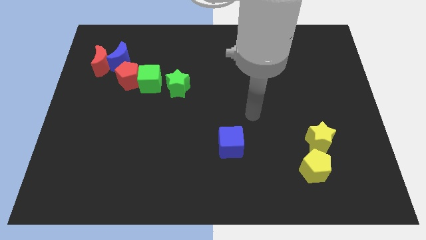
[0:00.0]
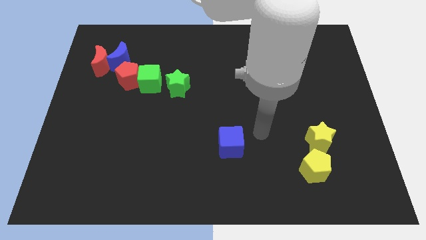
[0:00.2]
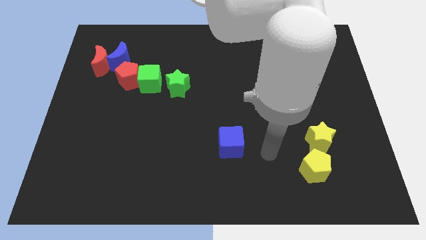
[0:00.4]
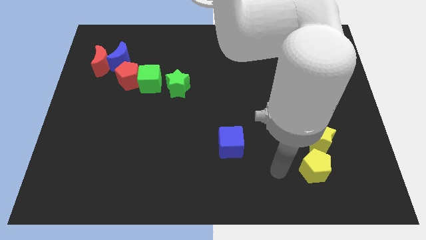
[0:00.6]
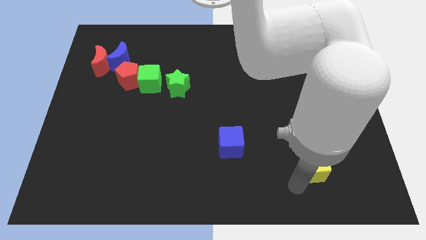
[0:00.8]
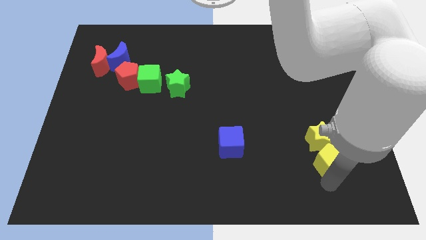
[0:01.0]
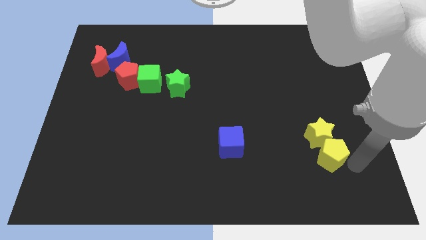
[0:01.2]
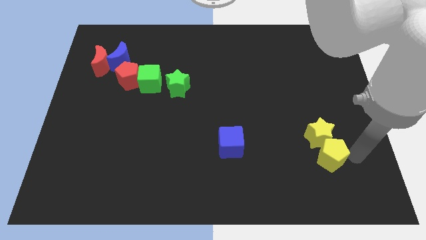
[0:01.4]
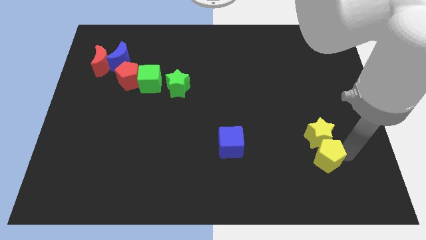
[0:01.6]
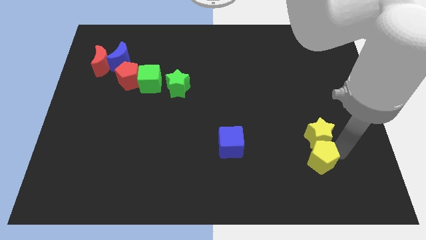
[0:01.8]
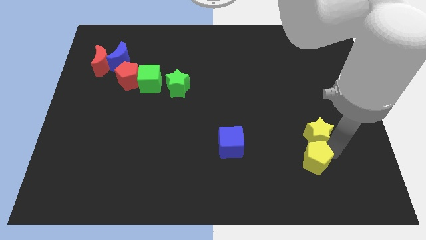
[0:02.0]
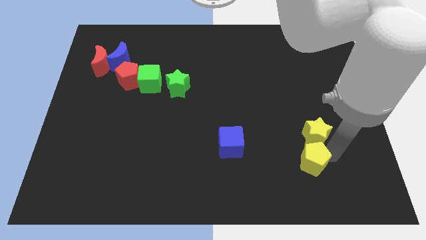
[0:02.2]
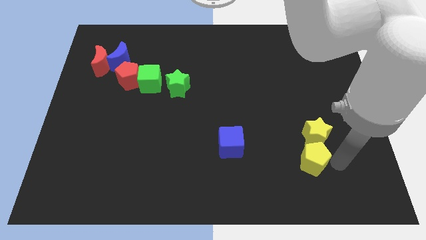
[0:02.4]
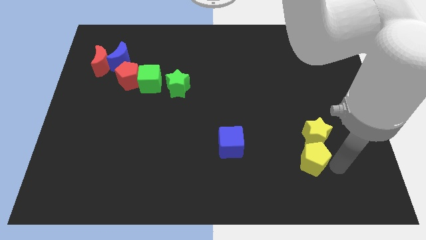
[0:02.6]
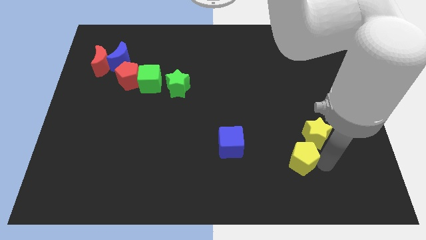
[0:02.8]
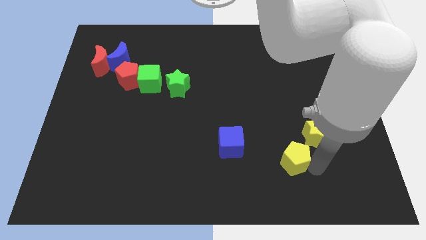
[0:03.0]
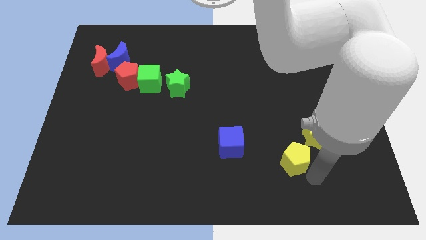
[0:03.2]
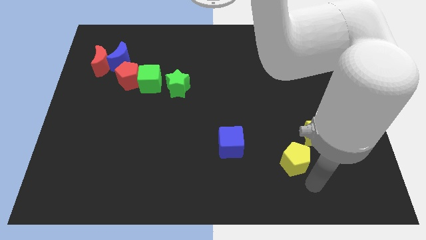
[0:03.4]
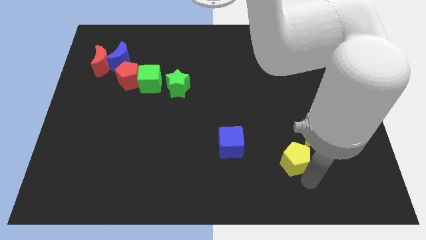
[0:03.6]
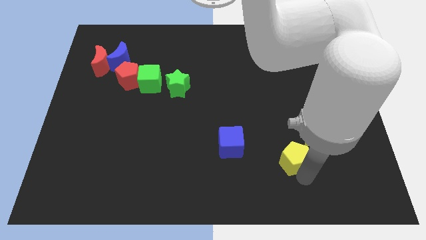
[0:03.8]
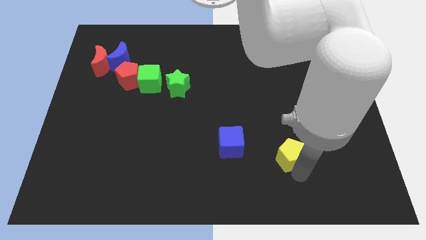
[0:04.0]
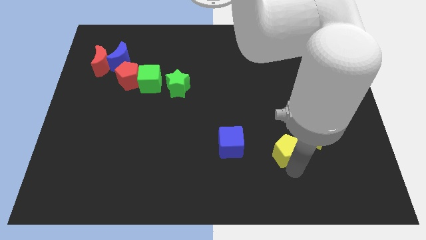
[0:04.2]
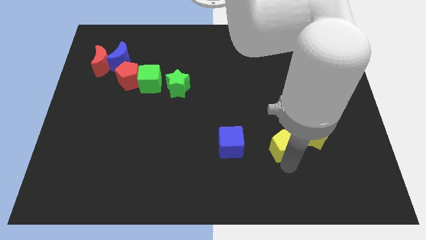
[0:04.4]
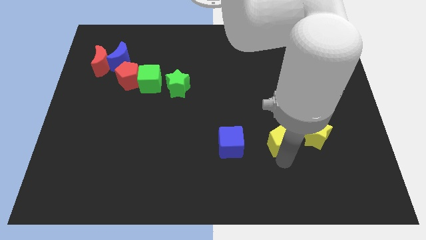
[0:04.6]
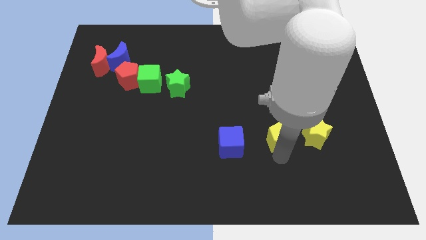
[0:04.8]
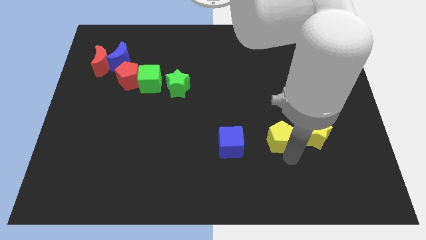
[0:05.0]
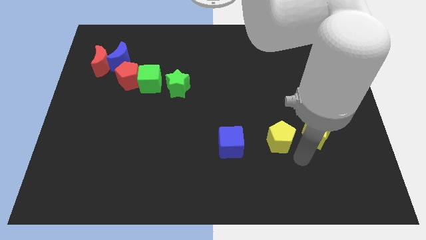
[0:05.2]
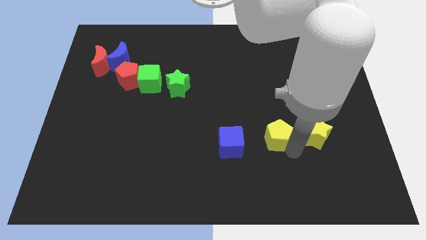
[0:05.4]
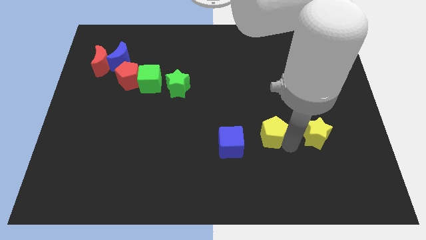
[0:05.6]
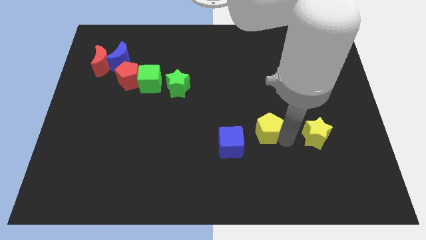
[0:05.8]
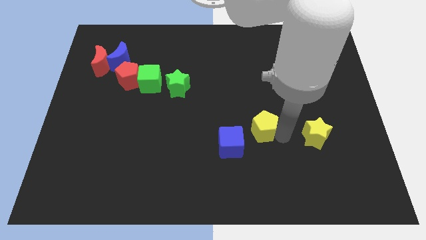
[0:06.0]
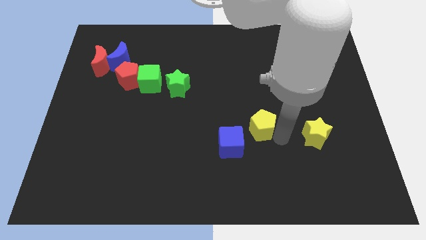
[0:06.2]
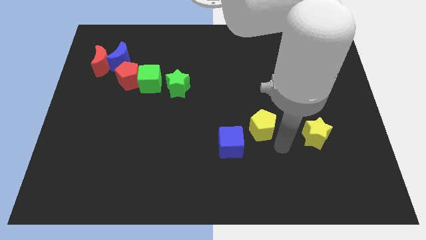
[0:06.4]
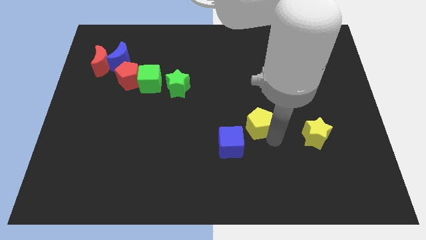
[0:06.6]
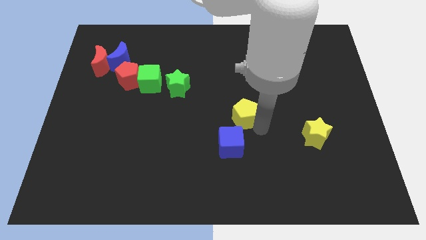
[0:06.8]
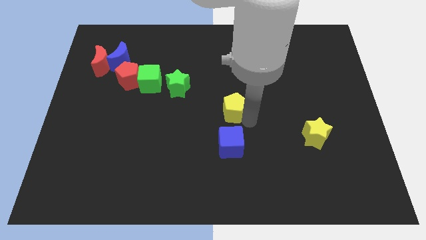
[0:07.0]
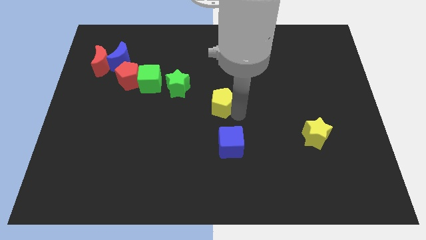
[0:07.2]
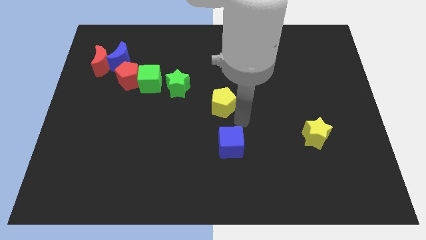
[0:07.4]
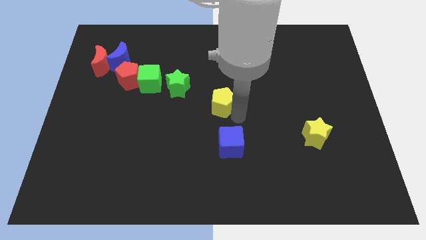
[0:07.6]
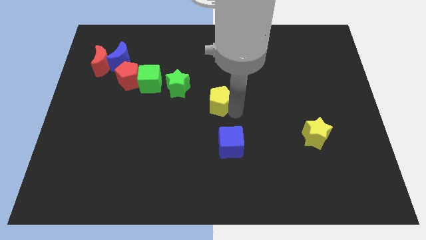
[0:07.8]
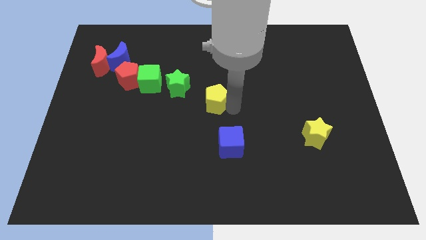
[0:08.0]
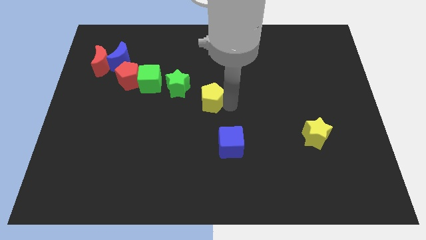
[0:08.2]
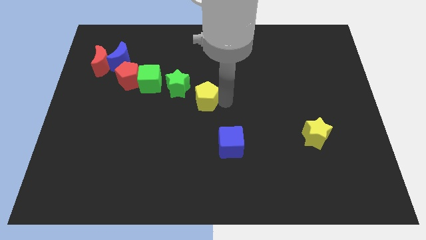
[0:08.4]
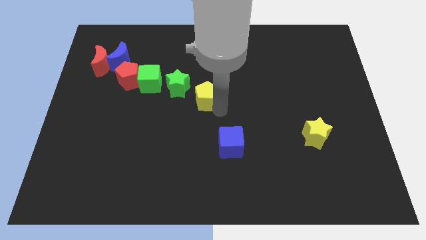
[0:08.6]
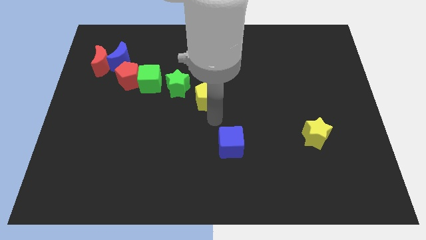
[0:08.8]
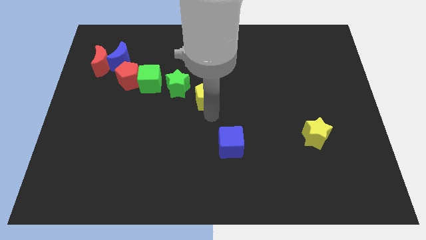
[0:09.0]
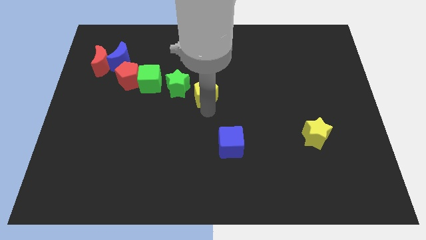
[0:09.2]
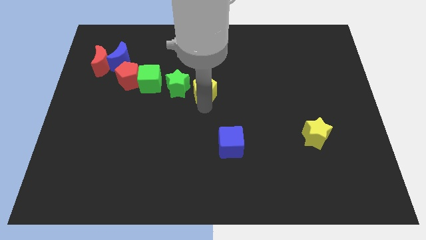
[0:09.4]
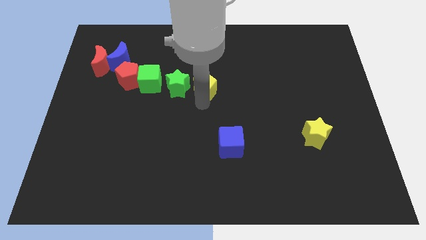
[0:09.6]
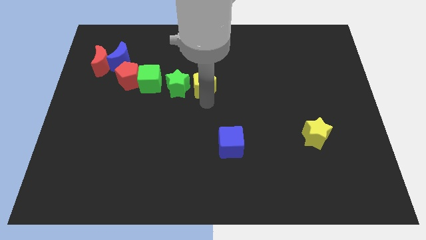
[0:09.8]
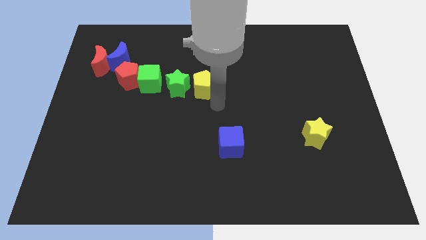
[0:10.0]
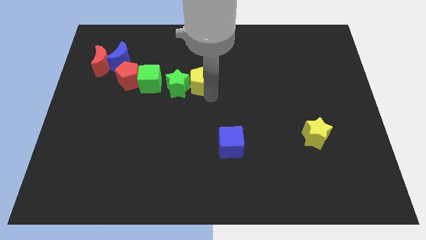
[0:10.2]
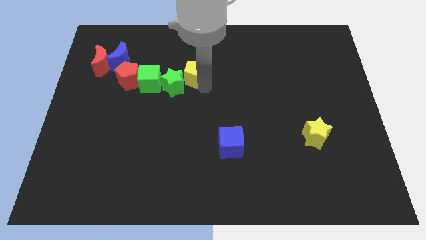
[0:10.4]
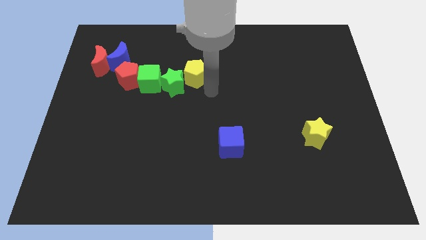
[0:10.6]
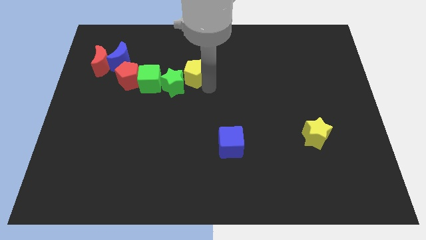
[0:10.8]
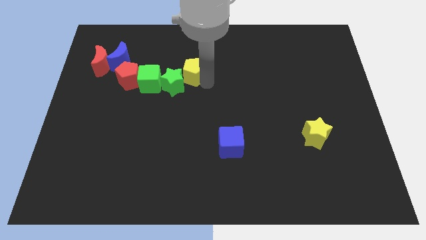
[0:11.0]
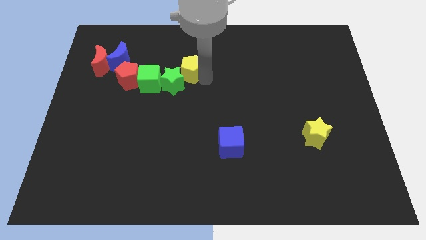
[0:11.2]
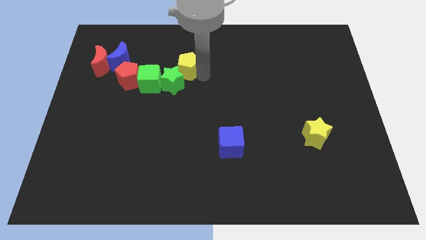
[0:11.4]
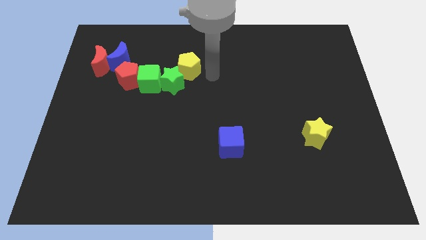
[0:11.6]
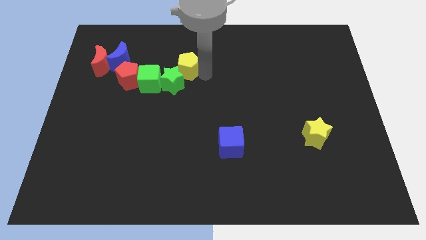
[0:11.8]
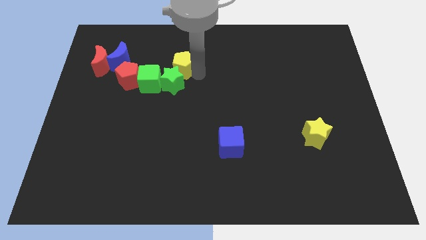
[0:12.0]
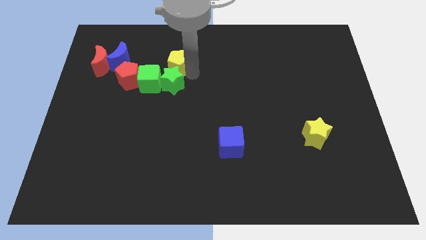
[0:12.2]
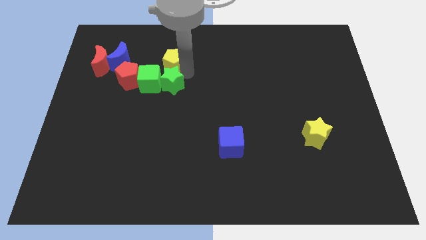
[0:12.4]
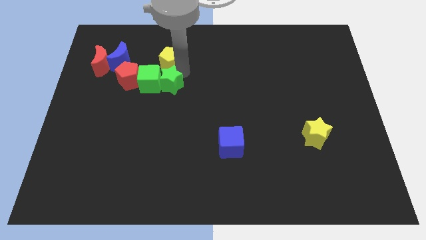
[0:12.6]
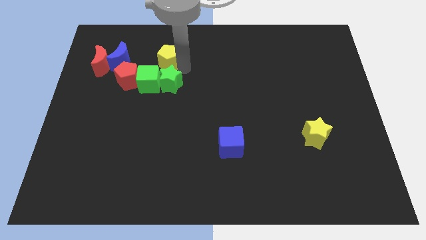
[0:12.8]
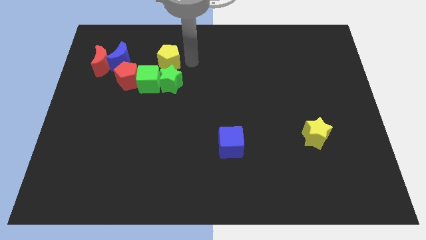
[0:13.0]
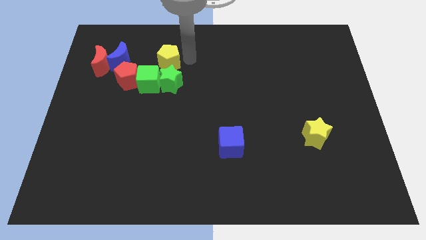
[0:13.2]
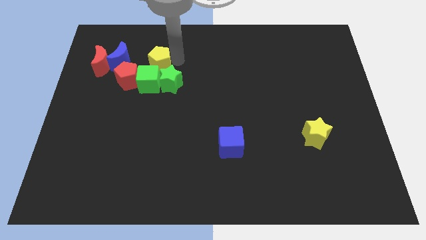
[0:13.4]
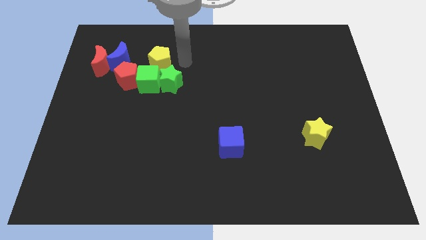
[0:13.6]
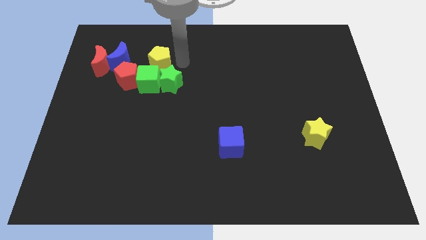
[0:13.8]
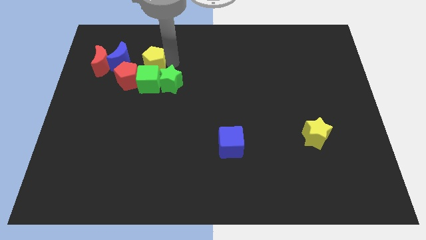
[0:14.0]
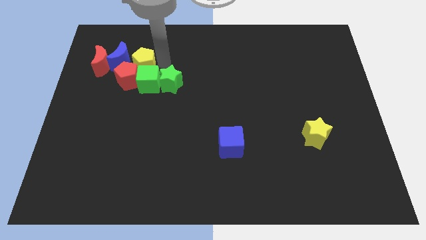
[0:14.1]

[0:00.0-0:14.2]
slide the yellow pentagon close to the blue moon

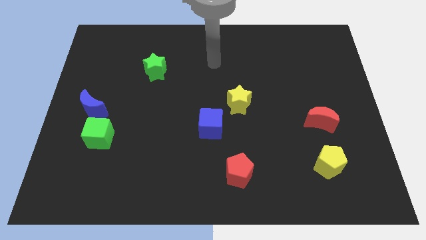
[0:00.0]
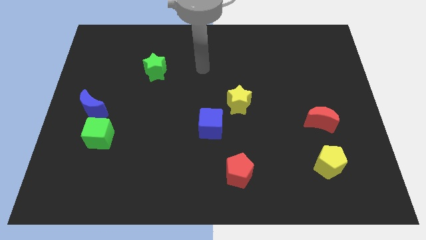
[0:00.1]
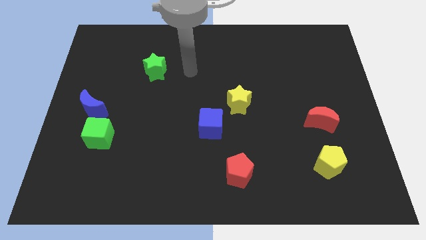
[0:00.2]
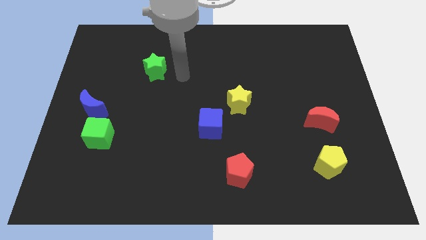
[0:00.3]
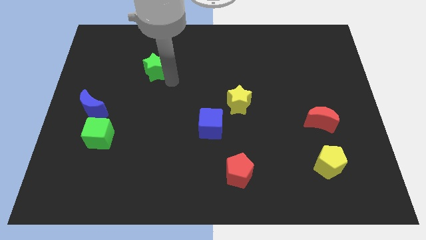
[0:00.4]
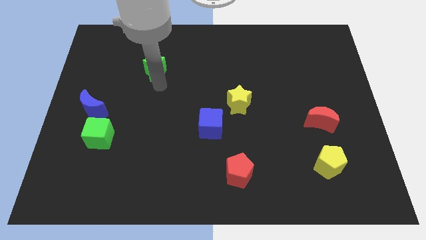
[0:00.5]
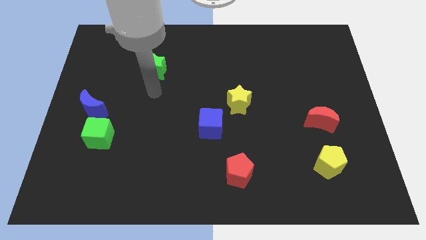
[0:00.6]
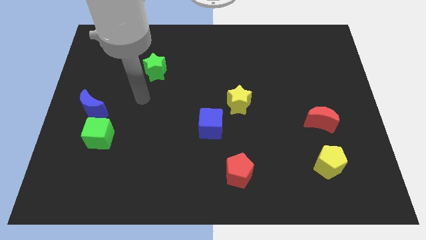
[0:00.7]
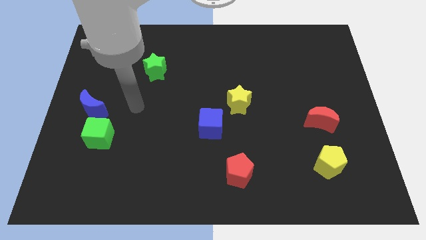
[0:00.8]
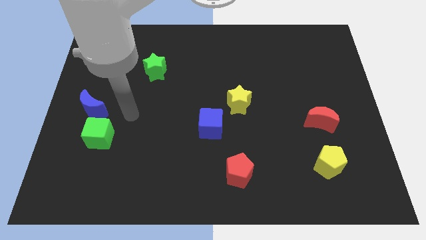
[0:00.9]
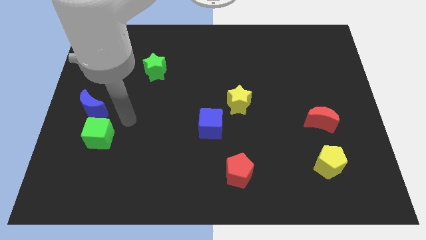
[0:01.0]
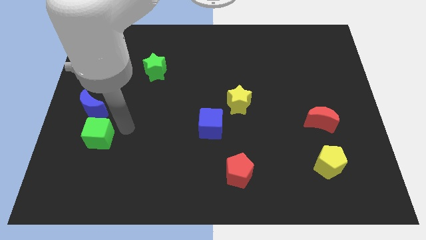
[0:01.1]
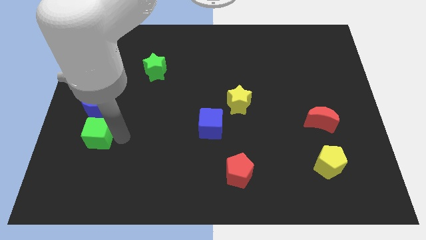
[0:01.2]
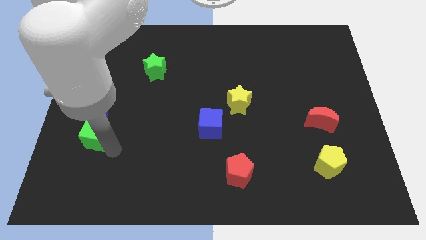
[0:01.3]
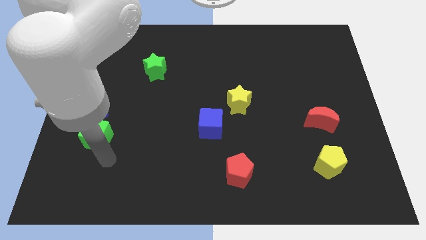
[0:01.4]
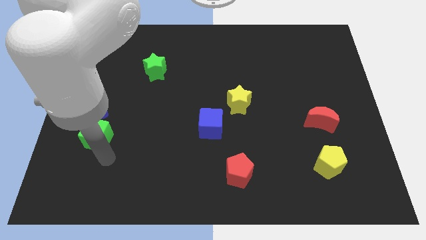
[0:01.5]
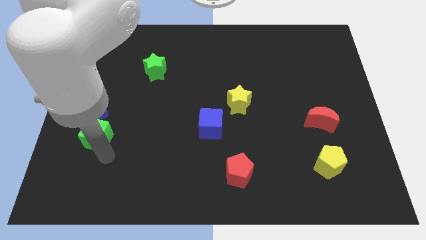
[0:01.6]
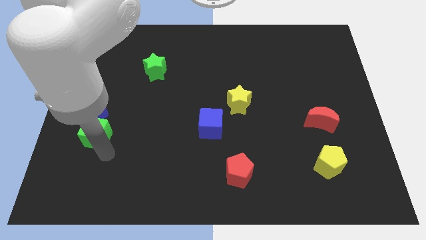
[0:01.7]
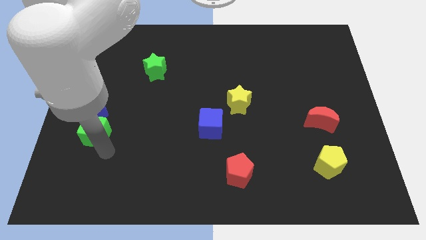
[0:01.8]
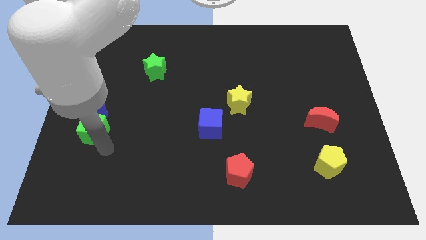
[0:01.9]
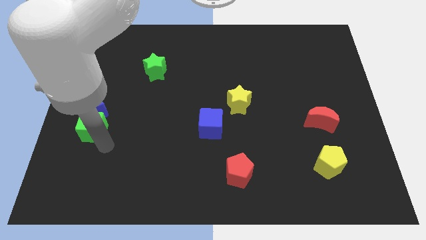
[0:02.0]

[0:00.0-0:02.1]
push the green cube next to the blue moon
